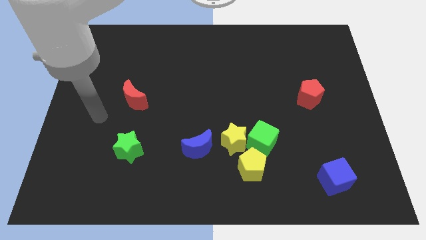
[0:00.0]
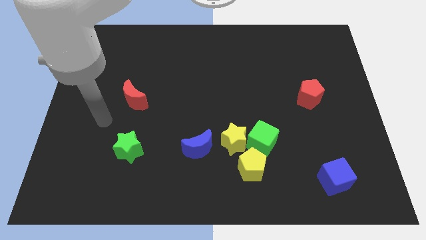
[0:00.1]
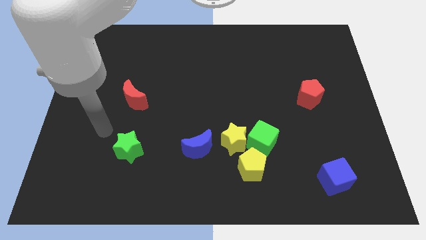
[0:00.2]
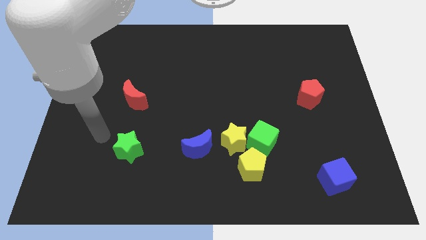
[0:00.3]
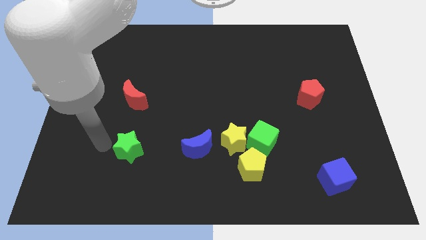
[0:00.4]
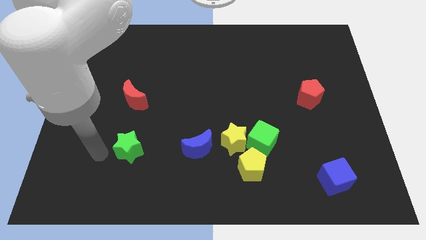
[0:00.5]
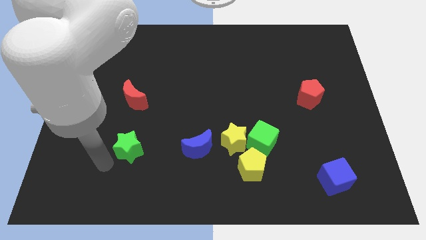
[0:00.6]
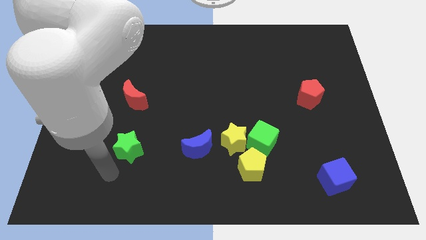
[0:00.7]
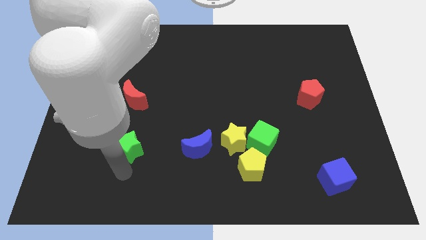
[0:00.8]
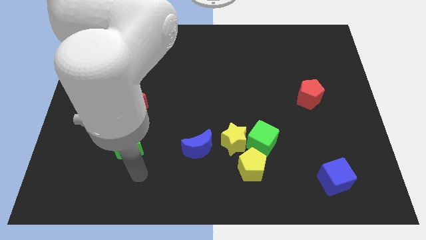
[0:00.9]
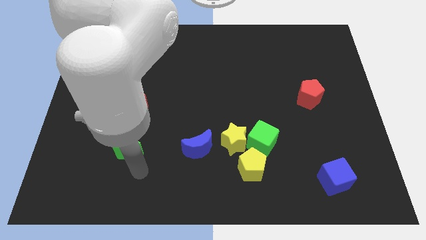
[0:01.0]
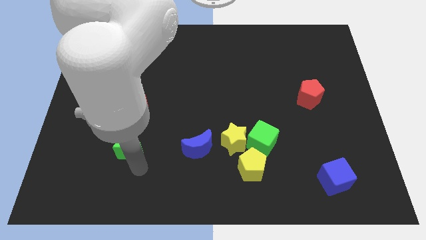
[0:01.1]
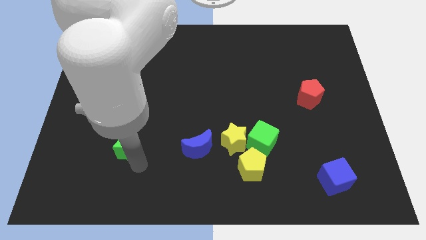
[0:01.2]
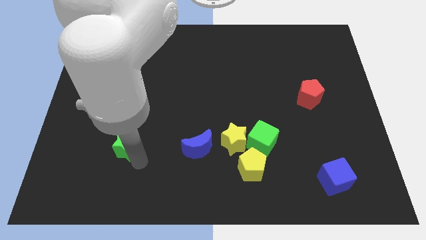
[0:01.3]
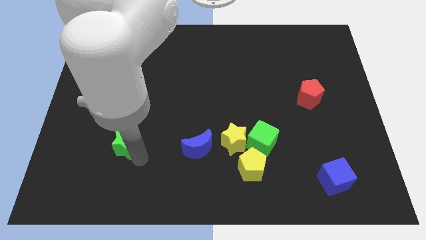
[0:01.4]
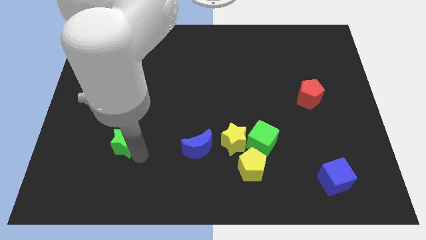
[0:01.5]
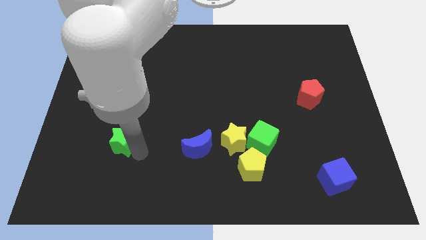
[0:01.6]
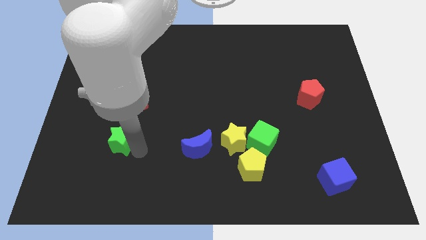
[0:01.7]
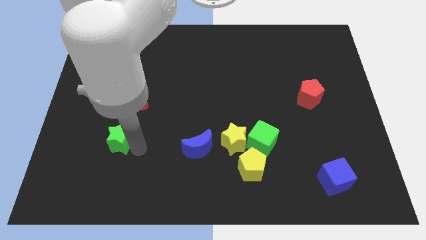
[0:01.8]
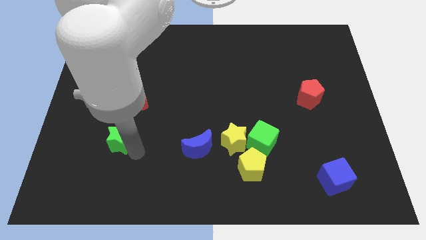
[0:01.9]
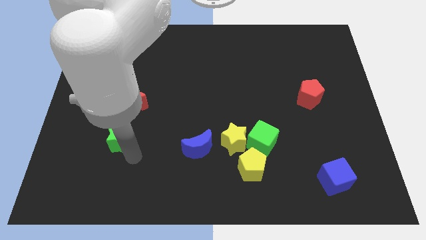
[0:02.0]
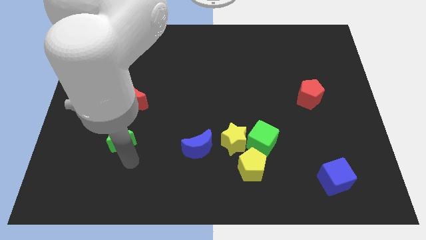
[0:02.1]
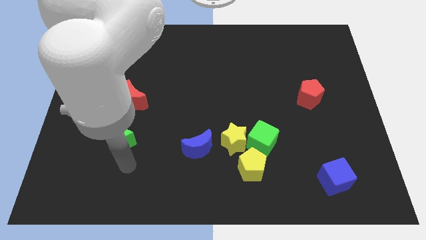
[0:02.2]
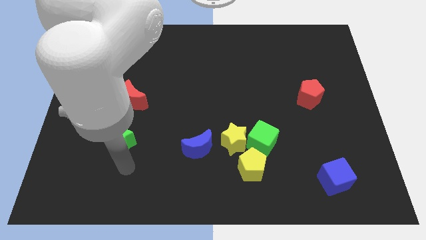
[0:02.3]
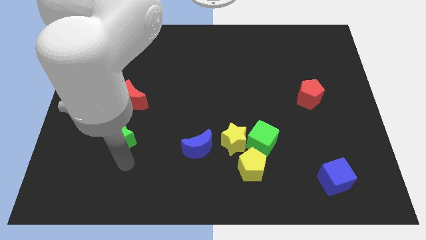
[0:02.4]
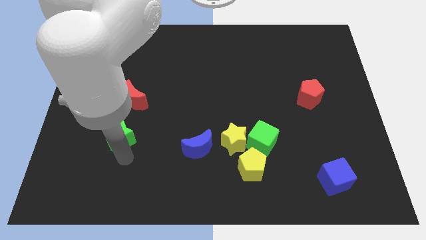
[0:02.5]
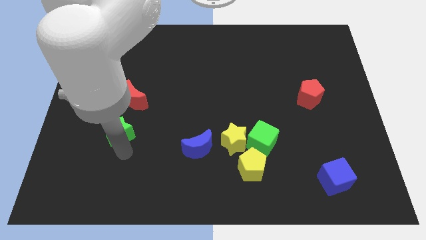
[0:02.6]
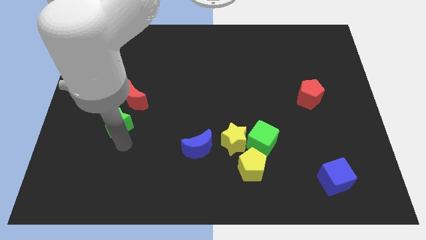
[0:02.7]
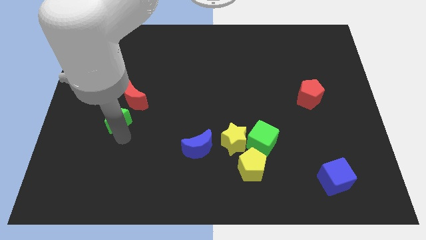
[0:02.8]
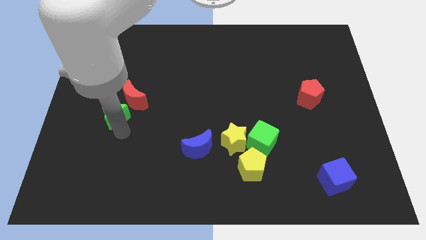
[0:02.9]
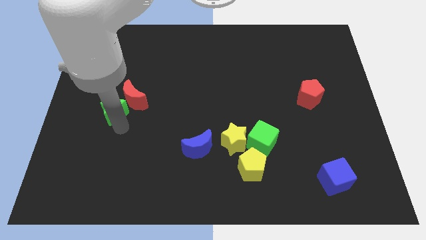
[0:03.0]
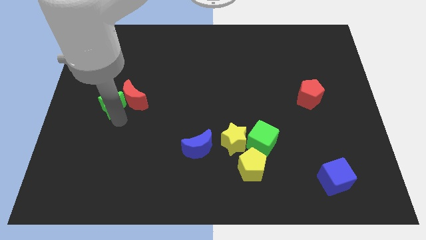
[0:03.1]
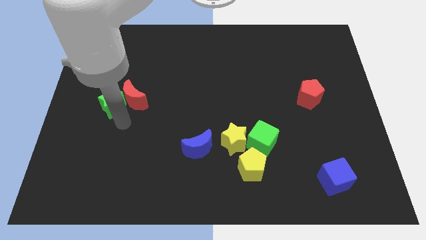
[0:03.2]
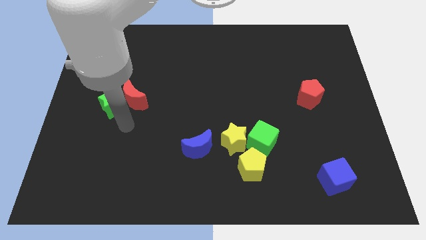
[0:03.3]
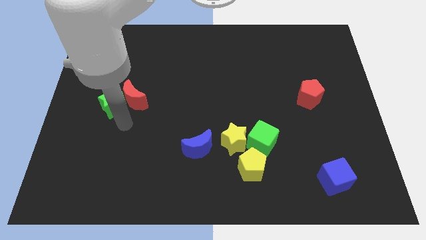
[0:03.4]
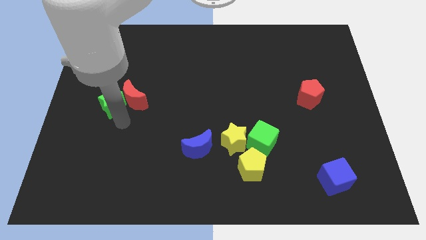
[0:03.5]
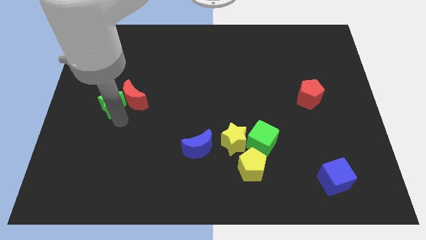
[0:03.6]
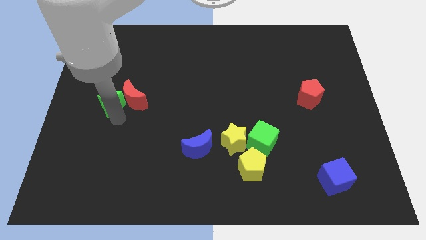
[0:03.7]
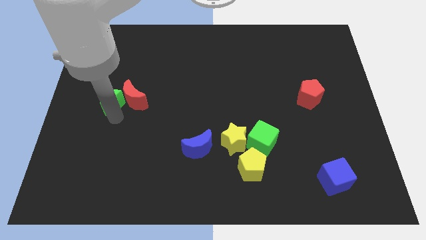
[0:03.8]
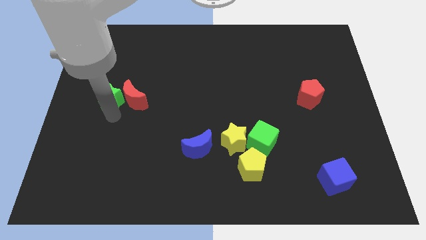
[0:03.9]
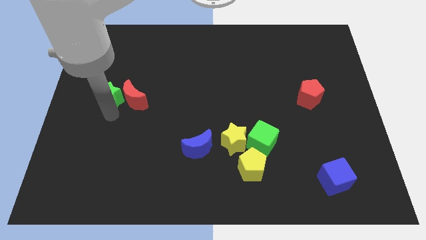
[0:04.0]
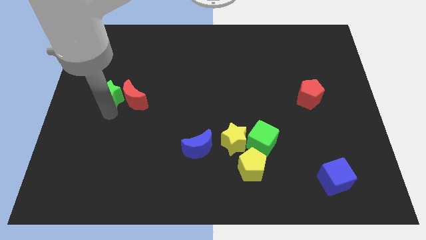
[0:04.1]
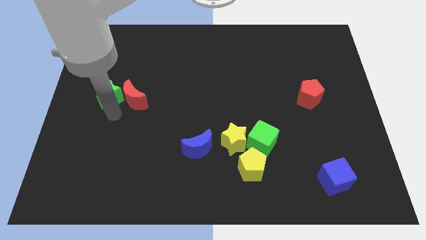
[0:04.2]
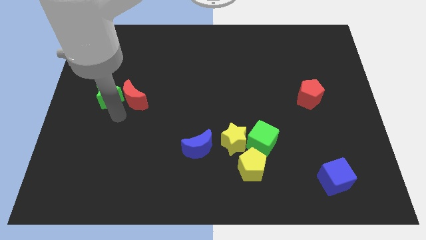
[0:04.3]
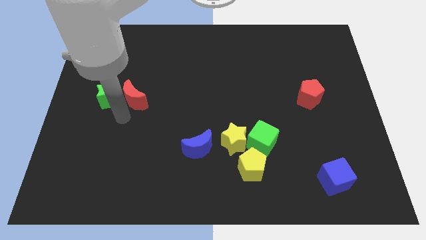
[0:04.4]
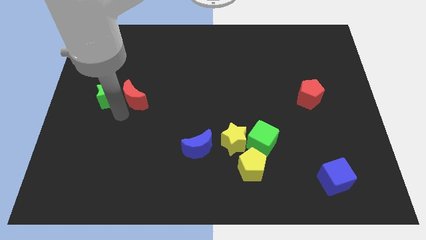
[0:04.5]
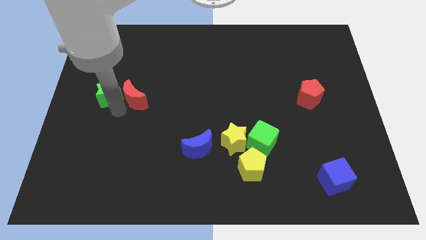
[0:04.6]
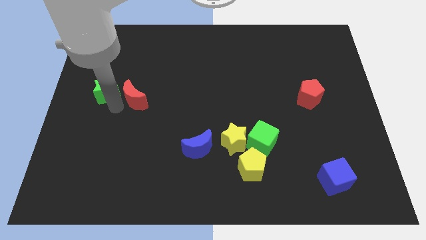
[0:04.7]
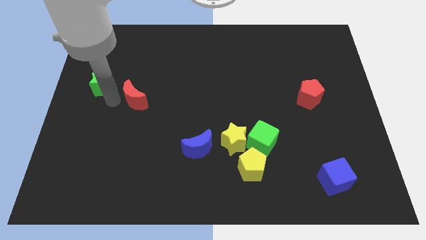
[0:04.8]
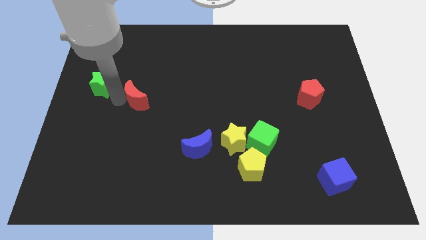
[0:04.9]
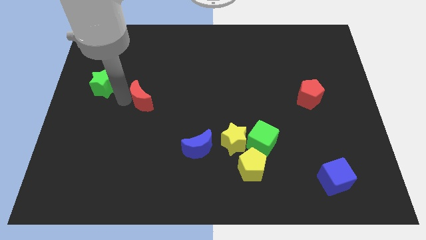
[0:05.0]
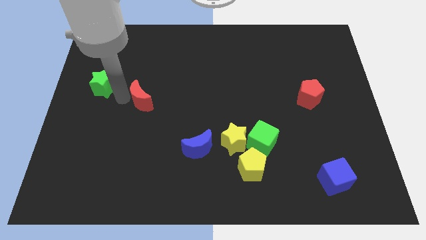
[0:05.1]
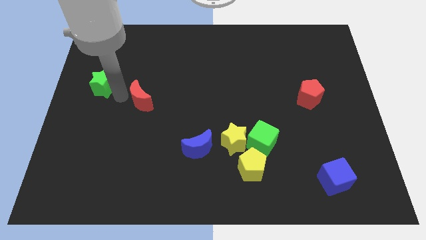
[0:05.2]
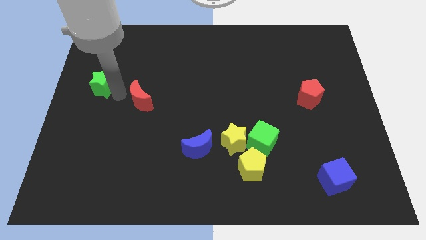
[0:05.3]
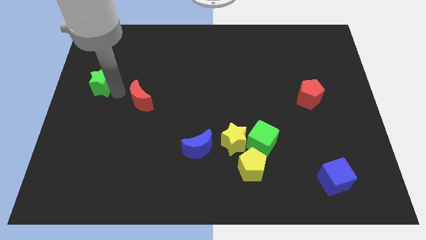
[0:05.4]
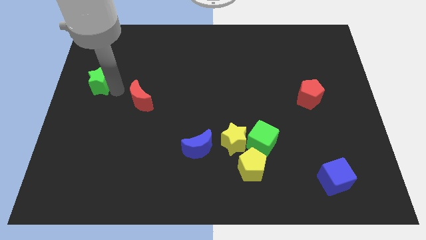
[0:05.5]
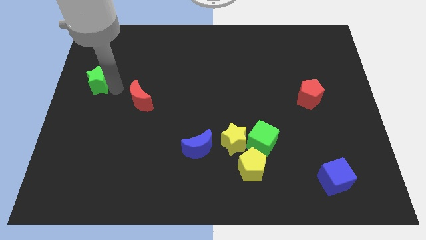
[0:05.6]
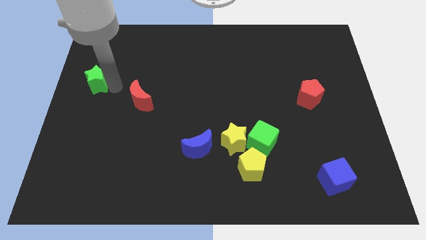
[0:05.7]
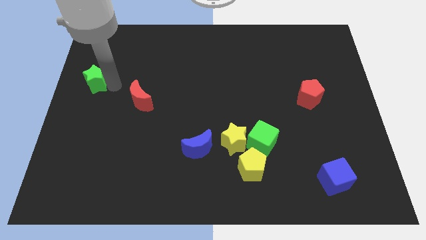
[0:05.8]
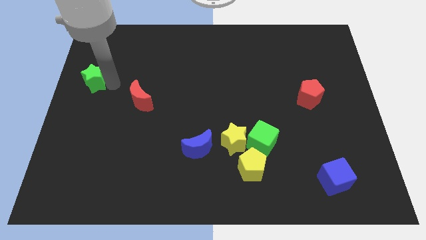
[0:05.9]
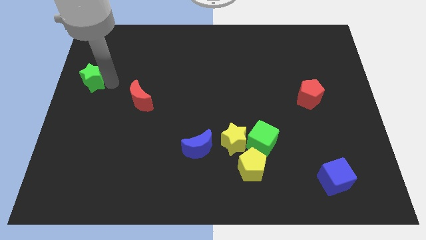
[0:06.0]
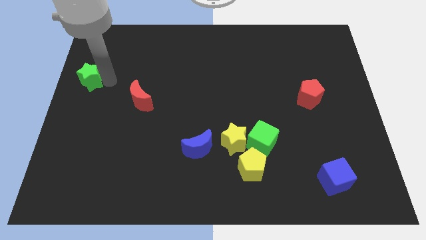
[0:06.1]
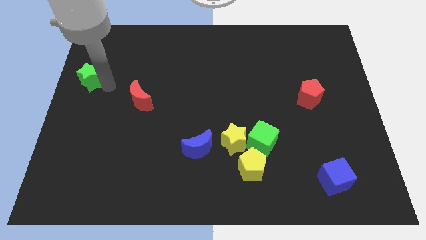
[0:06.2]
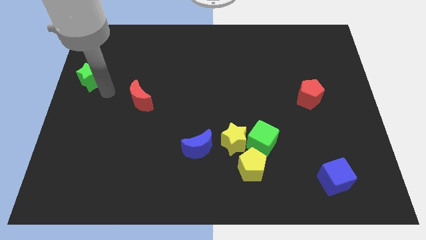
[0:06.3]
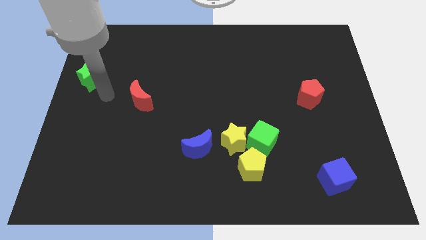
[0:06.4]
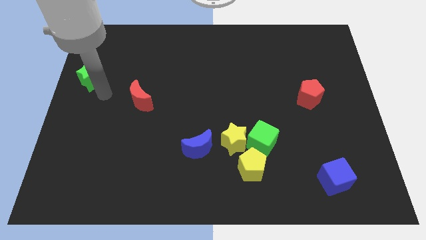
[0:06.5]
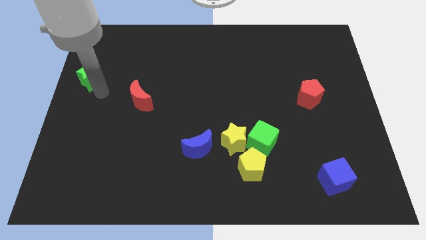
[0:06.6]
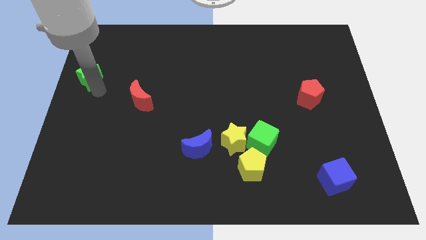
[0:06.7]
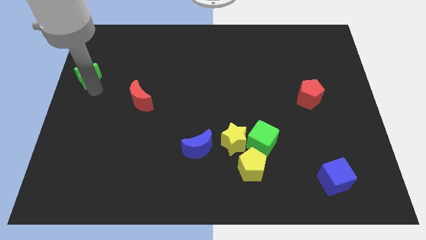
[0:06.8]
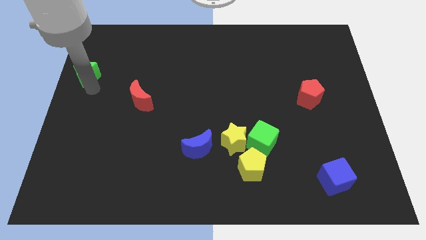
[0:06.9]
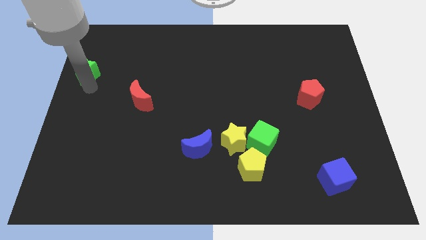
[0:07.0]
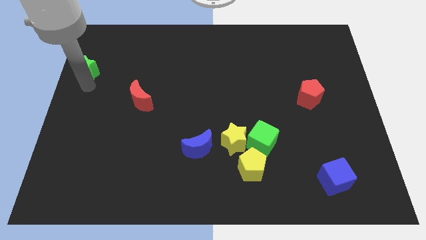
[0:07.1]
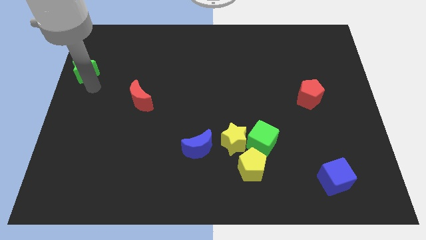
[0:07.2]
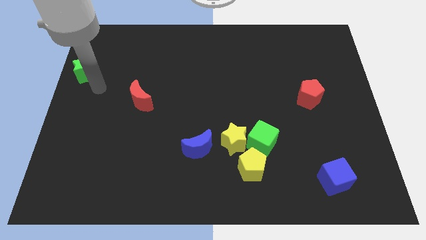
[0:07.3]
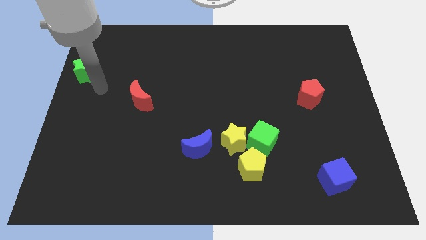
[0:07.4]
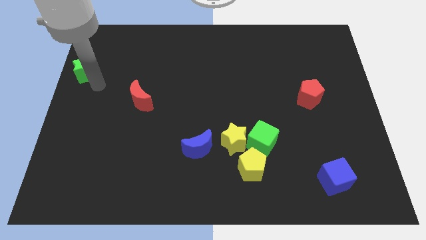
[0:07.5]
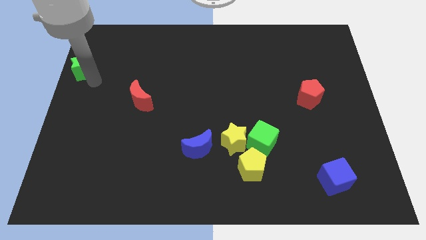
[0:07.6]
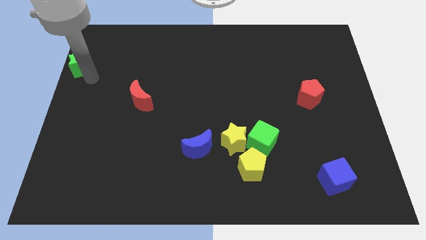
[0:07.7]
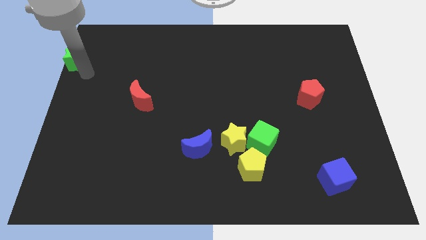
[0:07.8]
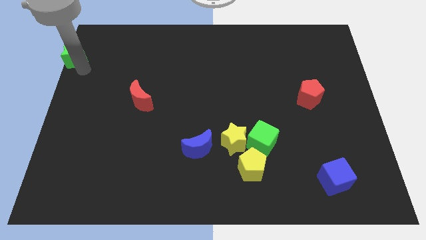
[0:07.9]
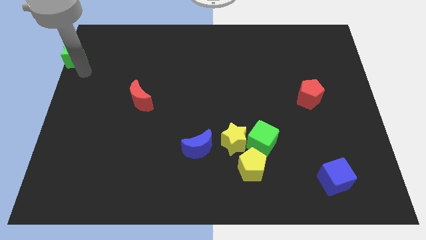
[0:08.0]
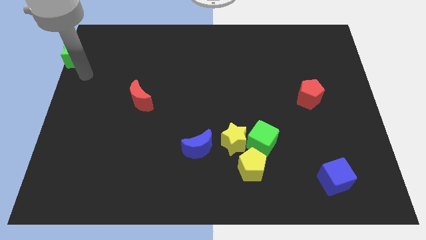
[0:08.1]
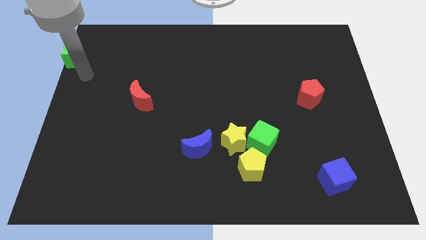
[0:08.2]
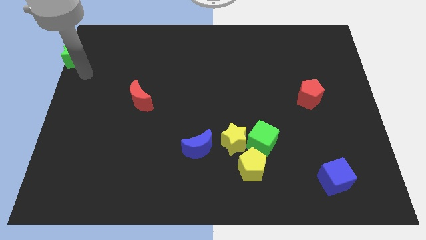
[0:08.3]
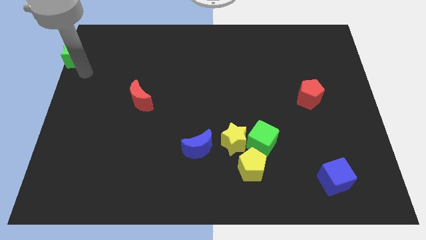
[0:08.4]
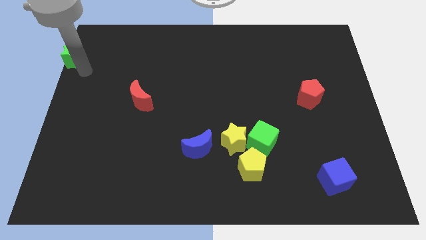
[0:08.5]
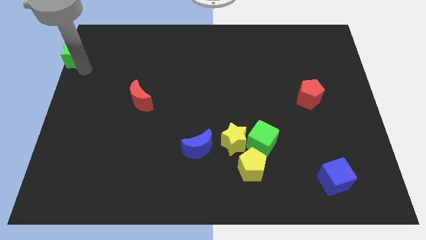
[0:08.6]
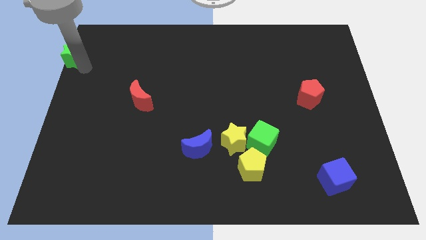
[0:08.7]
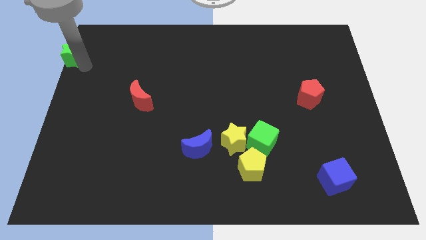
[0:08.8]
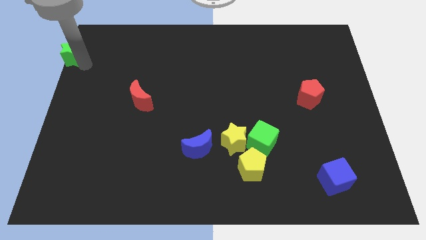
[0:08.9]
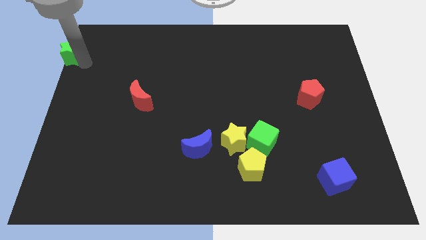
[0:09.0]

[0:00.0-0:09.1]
put the green star to the top left
